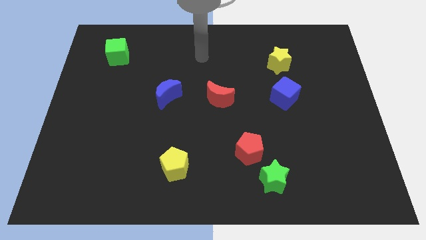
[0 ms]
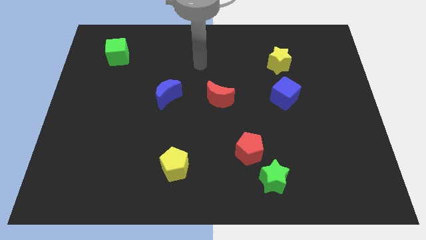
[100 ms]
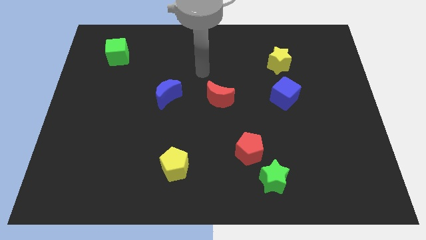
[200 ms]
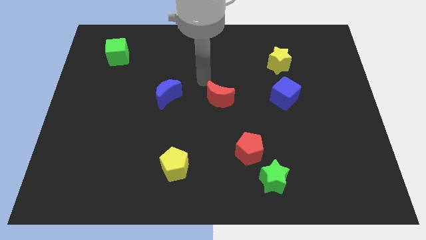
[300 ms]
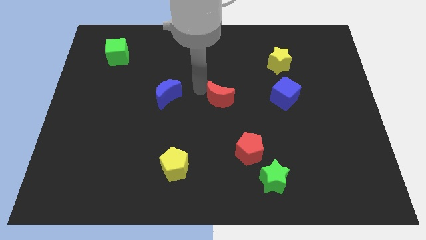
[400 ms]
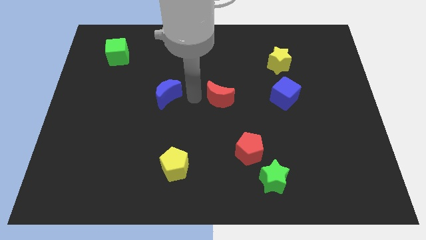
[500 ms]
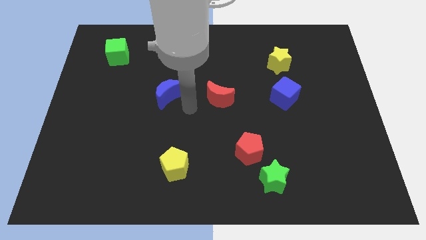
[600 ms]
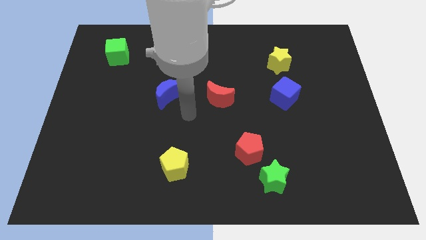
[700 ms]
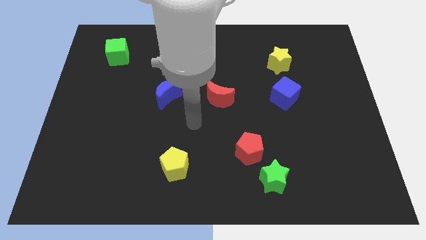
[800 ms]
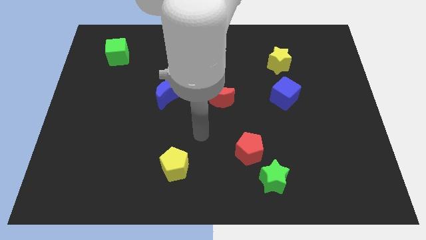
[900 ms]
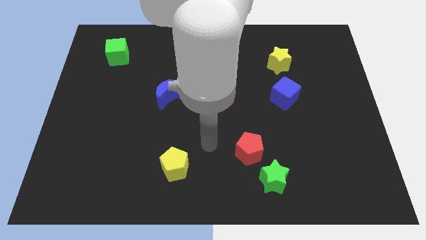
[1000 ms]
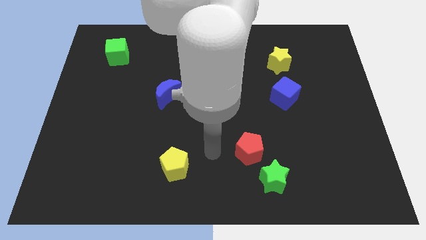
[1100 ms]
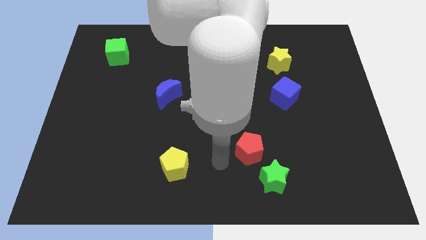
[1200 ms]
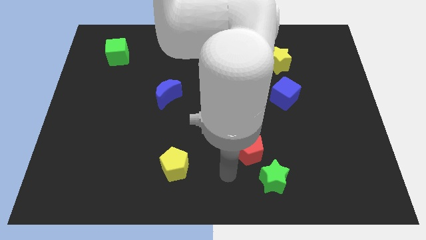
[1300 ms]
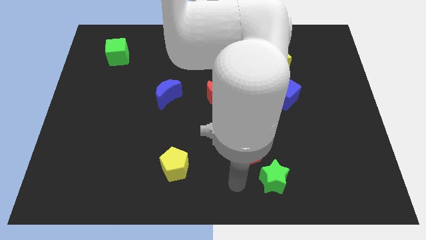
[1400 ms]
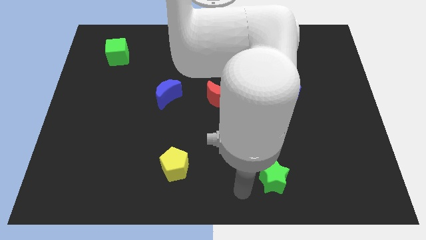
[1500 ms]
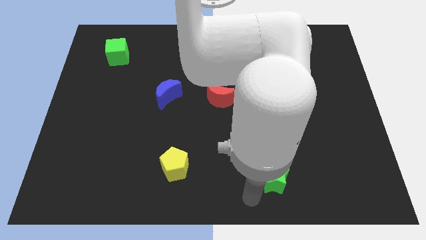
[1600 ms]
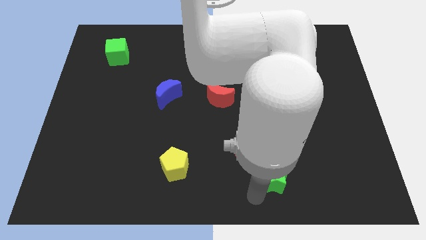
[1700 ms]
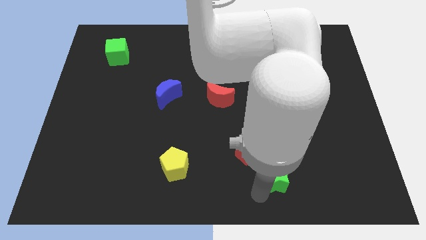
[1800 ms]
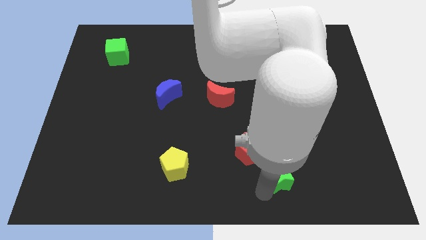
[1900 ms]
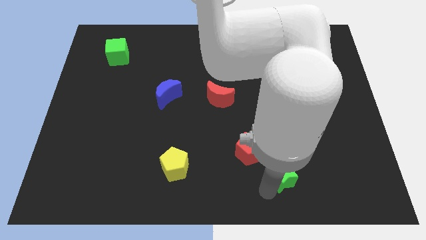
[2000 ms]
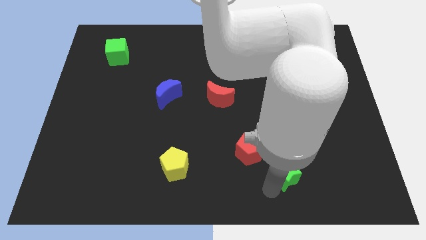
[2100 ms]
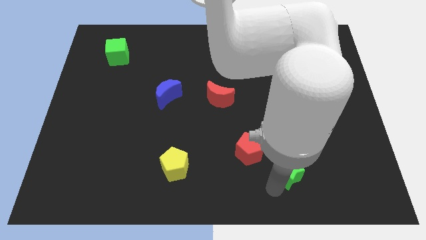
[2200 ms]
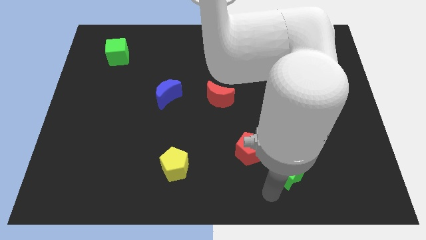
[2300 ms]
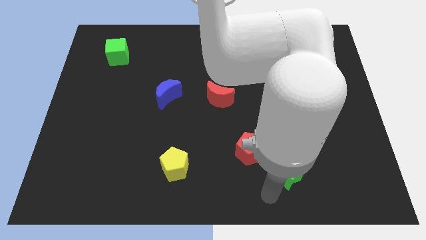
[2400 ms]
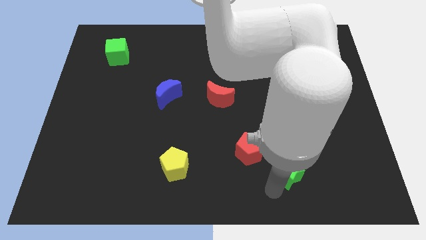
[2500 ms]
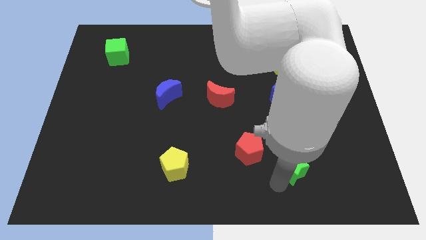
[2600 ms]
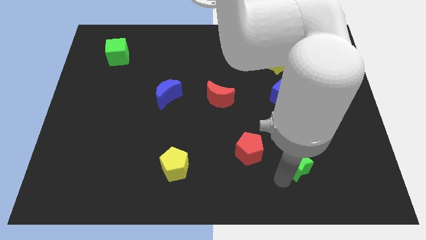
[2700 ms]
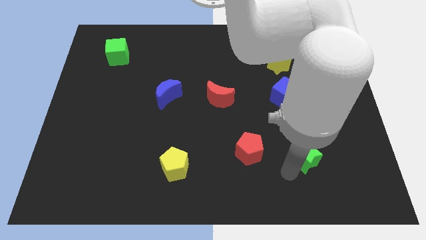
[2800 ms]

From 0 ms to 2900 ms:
push the green star a bit upwards and to the right

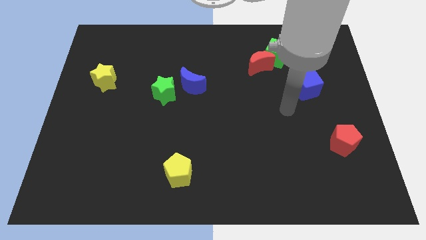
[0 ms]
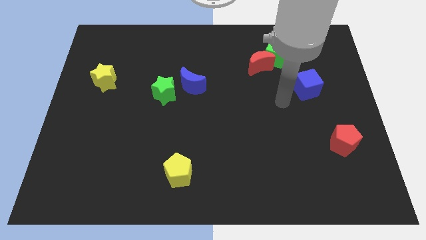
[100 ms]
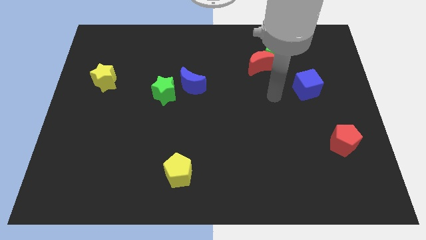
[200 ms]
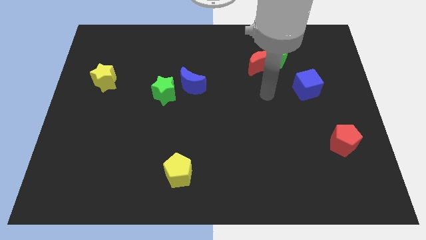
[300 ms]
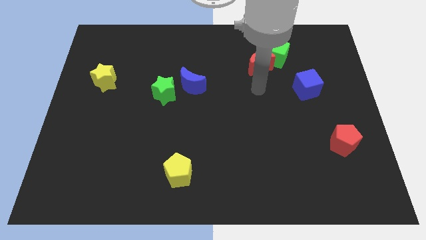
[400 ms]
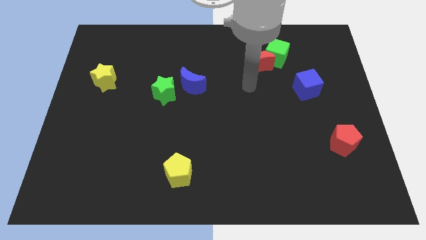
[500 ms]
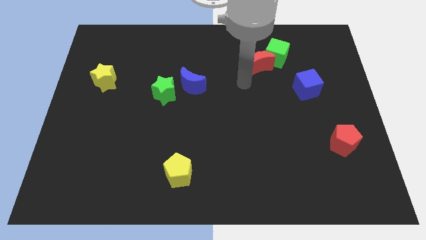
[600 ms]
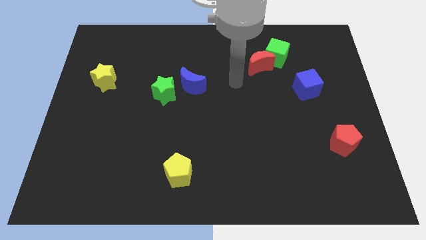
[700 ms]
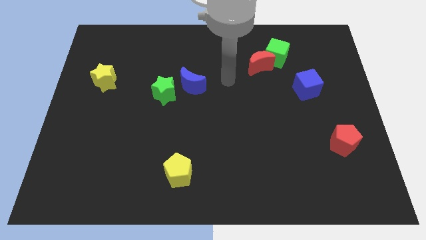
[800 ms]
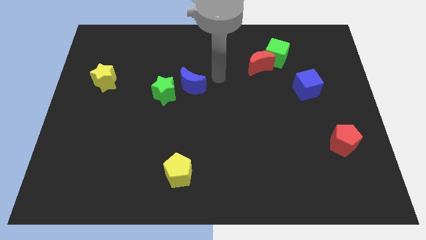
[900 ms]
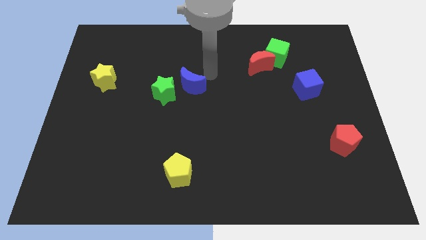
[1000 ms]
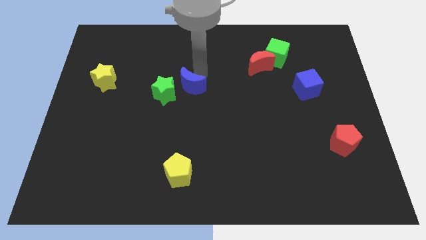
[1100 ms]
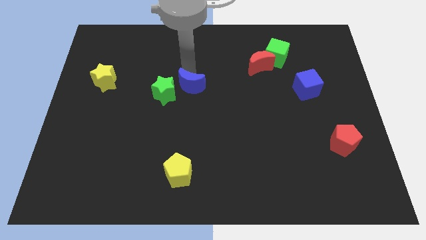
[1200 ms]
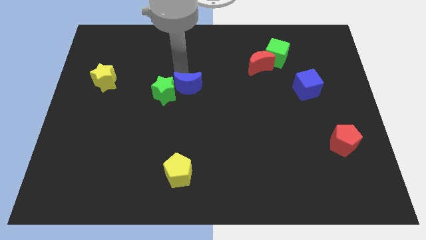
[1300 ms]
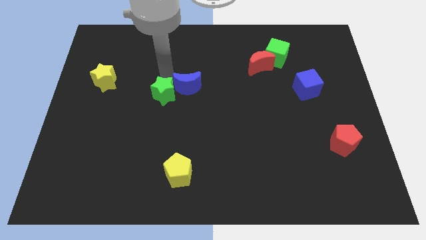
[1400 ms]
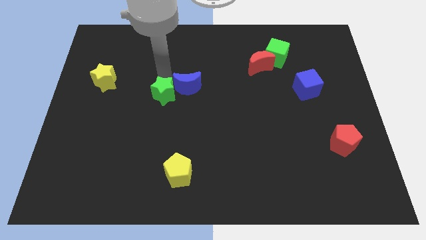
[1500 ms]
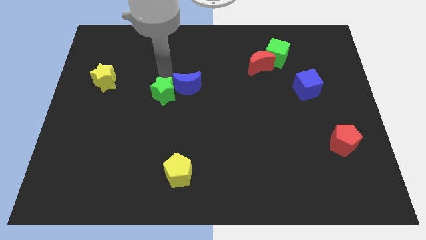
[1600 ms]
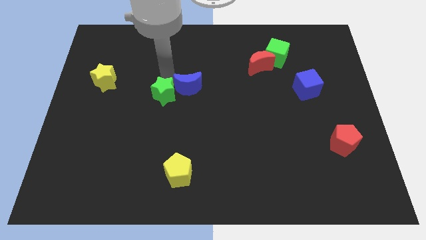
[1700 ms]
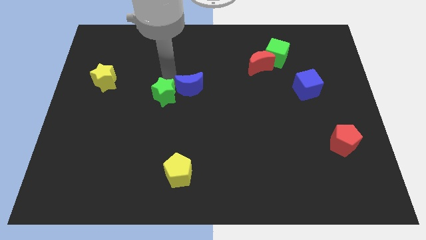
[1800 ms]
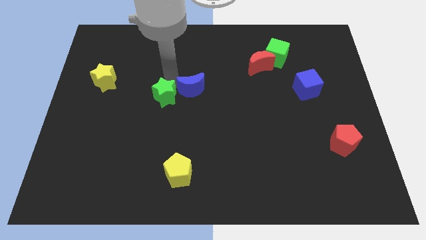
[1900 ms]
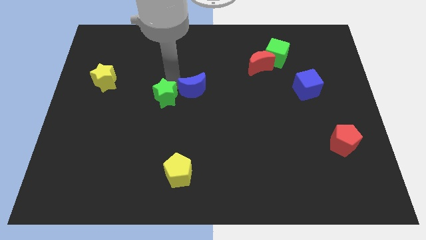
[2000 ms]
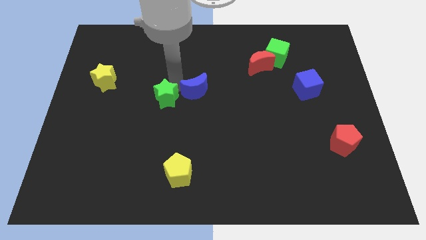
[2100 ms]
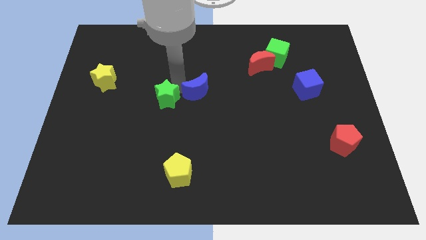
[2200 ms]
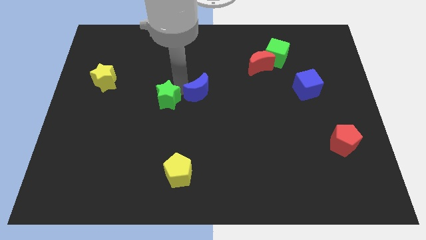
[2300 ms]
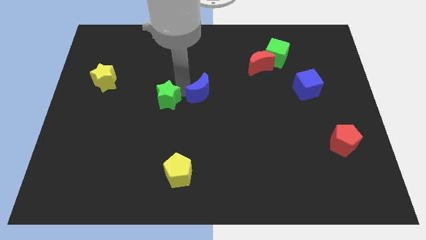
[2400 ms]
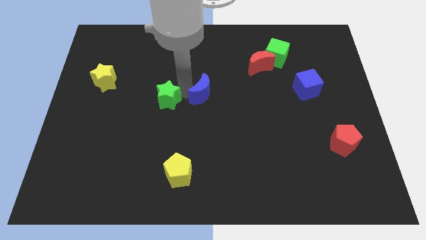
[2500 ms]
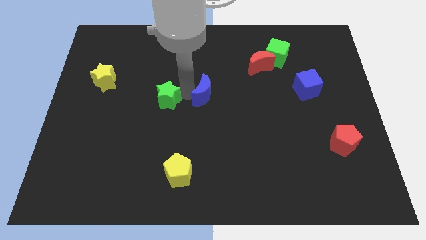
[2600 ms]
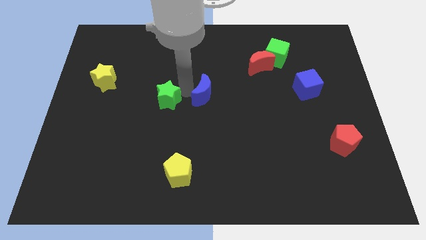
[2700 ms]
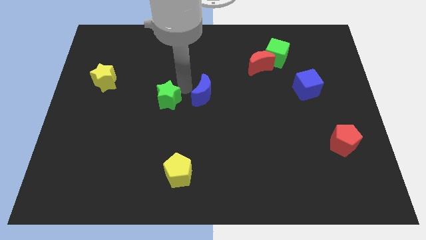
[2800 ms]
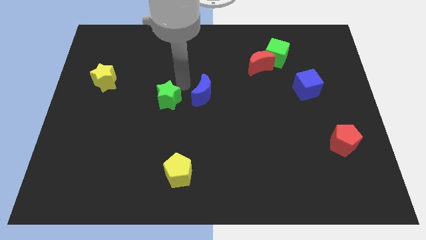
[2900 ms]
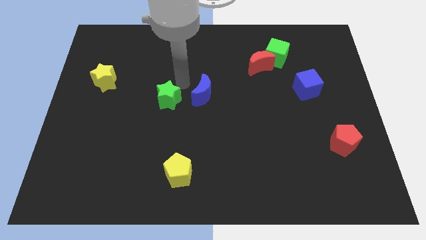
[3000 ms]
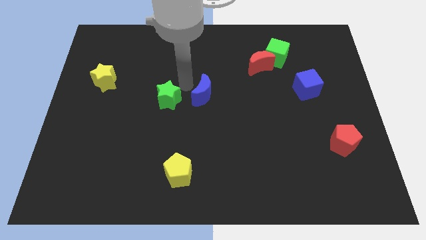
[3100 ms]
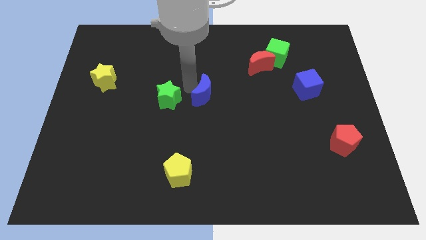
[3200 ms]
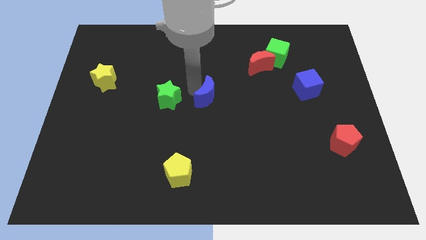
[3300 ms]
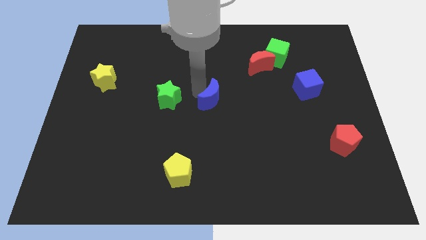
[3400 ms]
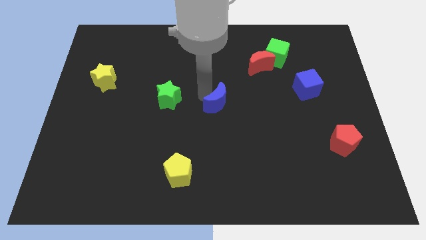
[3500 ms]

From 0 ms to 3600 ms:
slightly push the blue moon downwards and right diagonally

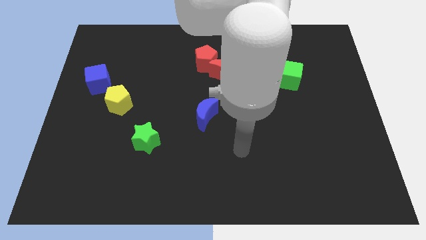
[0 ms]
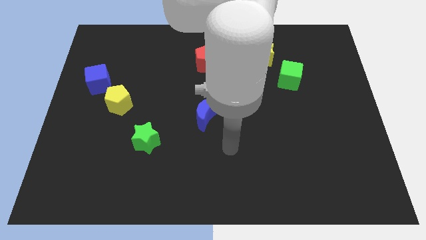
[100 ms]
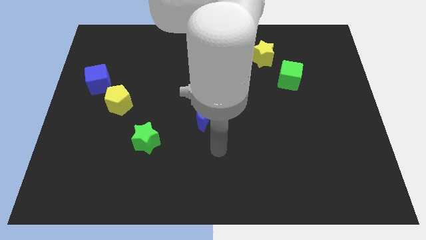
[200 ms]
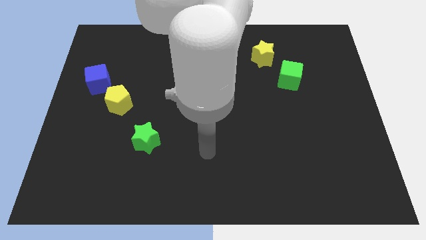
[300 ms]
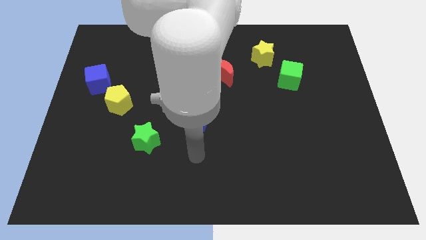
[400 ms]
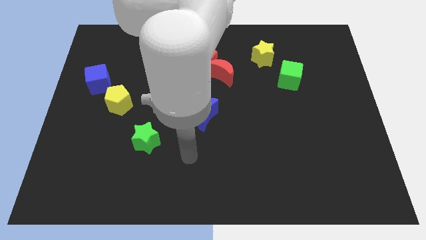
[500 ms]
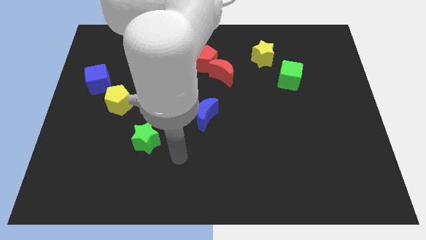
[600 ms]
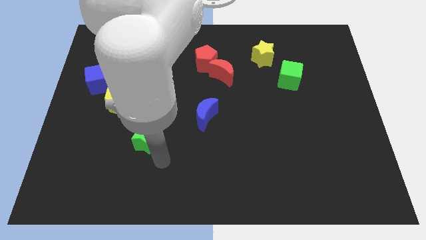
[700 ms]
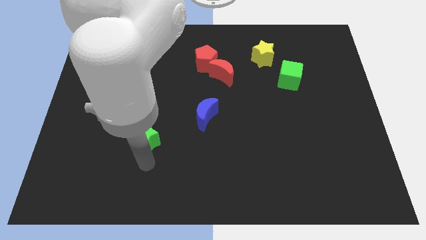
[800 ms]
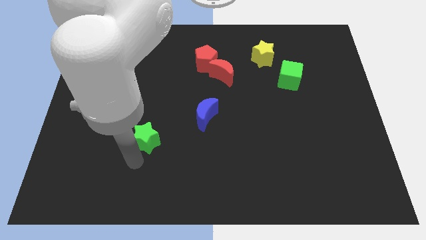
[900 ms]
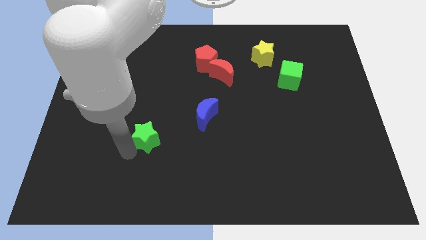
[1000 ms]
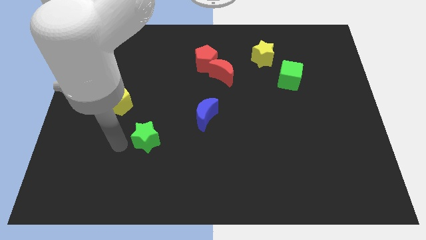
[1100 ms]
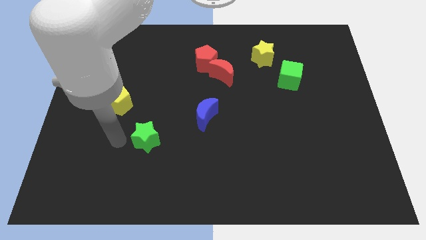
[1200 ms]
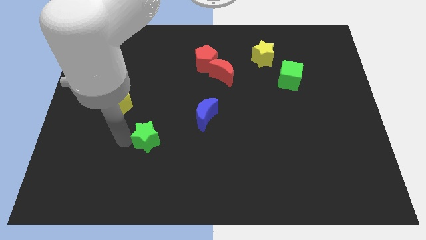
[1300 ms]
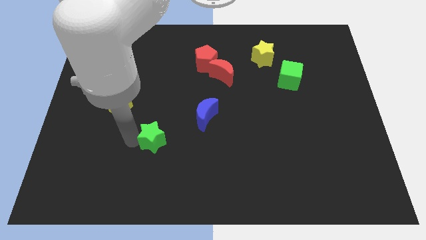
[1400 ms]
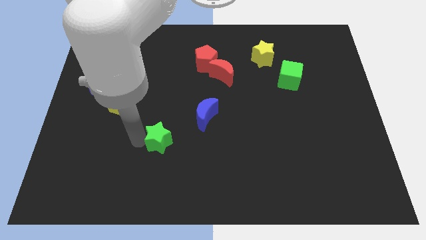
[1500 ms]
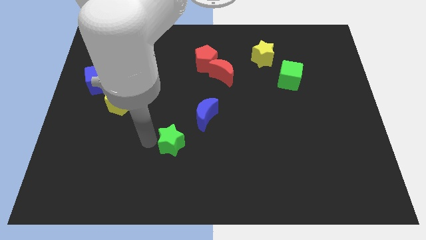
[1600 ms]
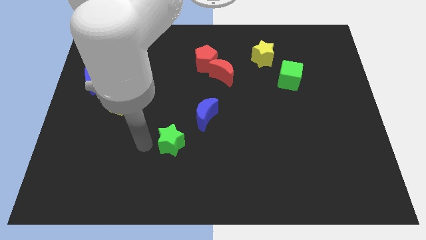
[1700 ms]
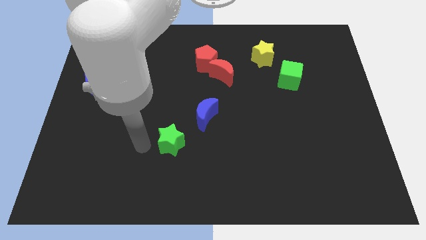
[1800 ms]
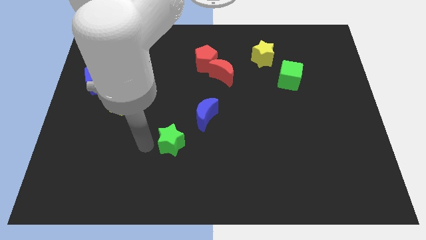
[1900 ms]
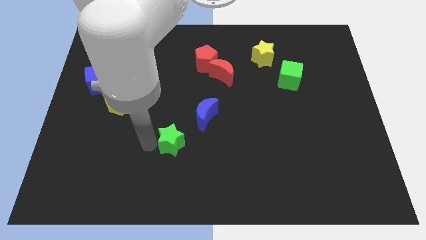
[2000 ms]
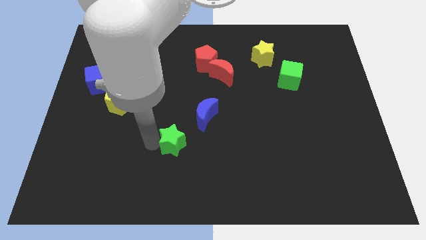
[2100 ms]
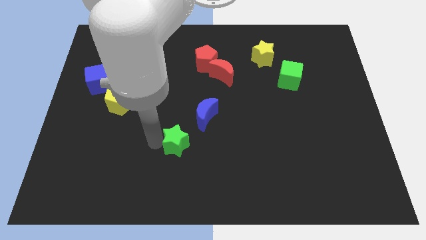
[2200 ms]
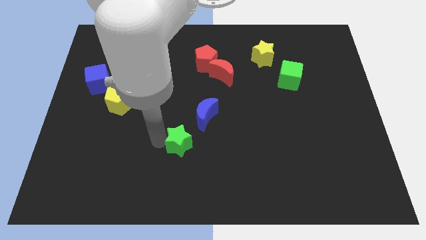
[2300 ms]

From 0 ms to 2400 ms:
push the green star right a little
